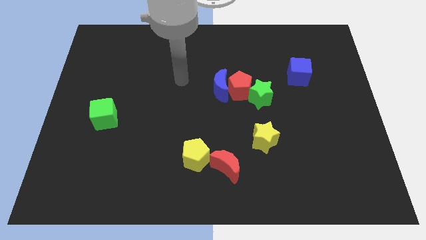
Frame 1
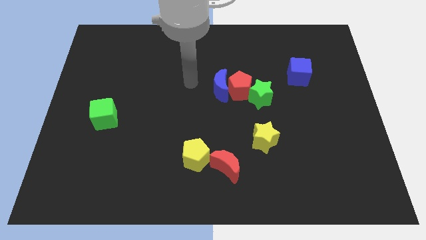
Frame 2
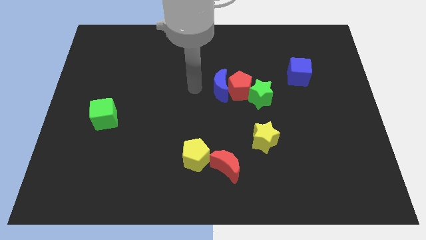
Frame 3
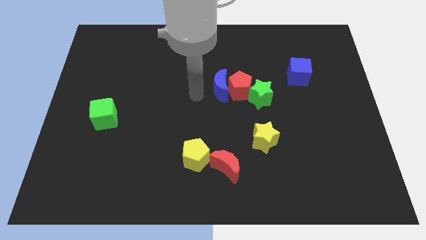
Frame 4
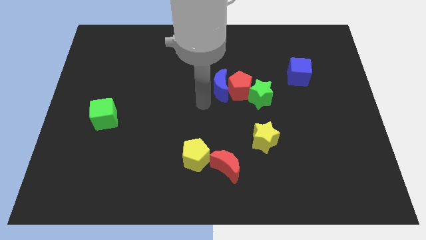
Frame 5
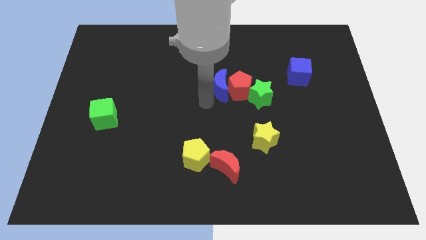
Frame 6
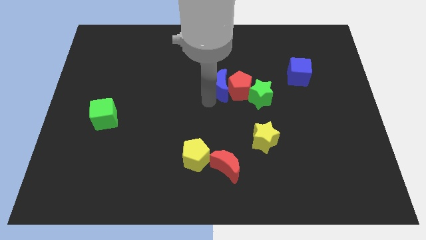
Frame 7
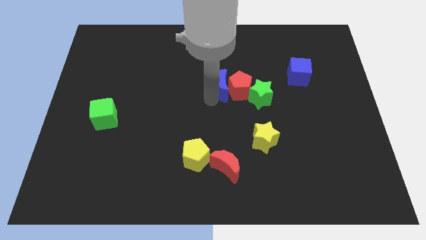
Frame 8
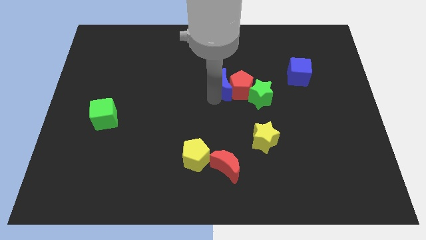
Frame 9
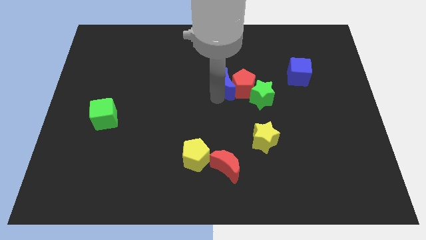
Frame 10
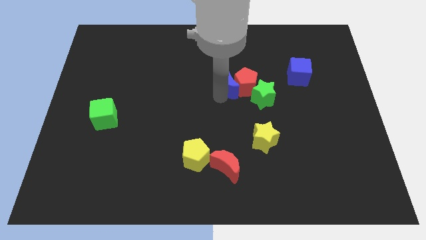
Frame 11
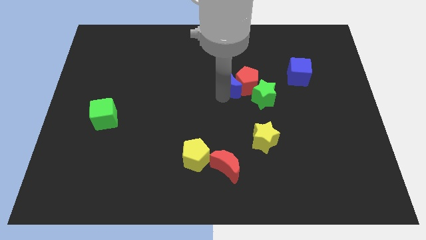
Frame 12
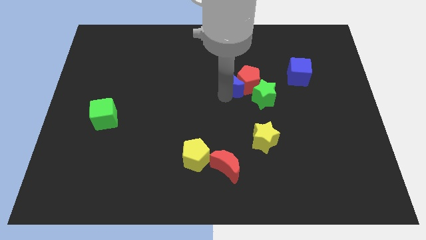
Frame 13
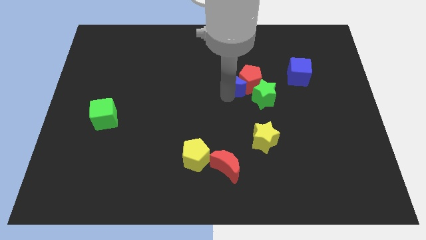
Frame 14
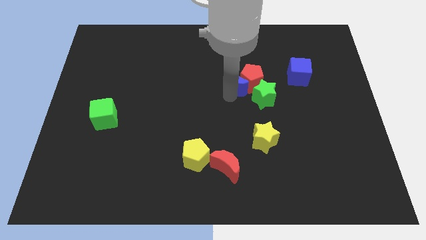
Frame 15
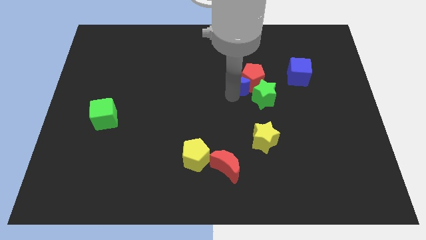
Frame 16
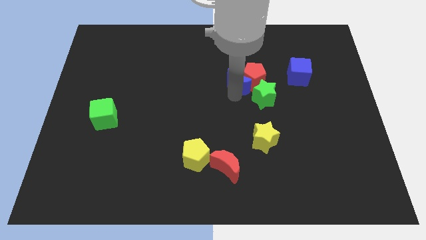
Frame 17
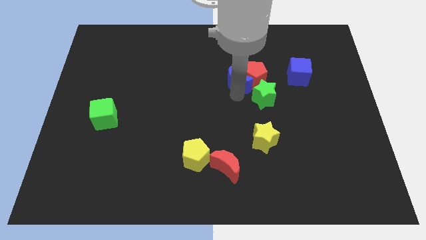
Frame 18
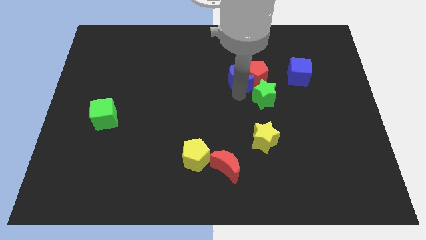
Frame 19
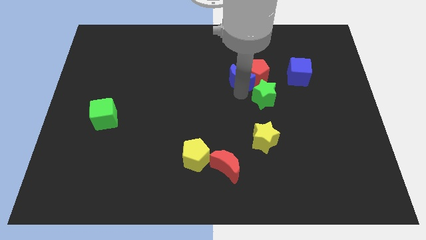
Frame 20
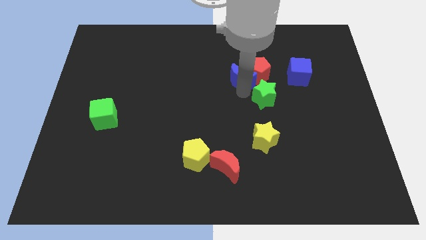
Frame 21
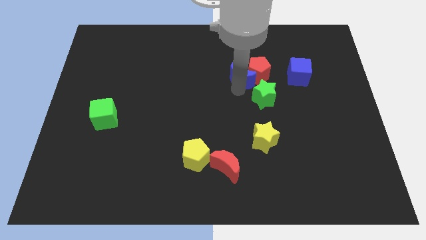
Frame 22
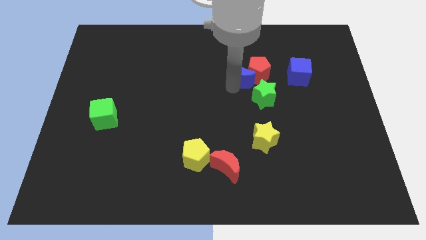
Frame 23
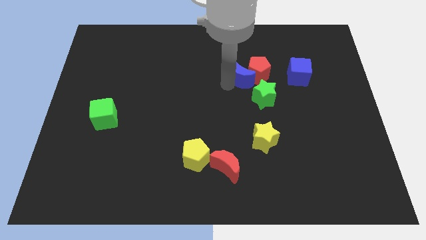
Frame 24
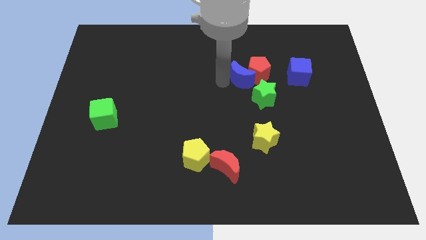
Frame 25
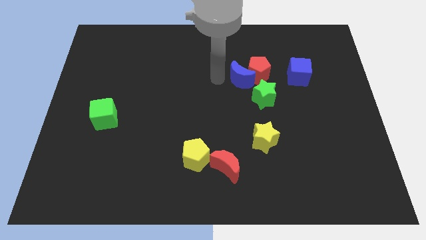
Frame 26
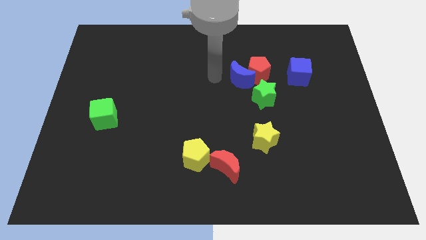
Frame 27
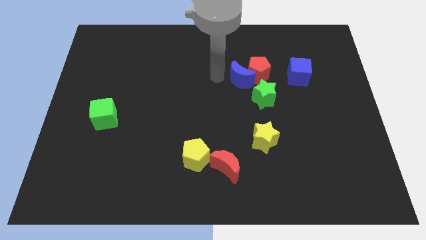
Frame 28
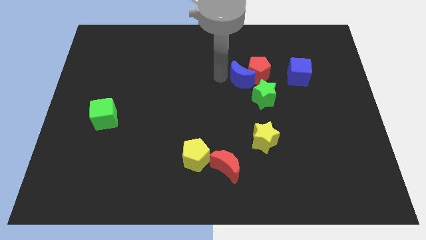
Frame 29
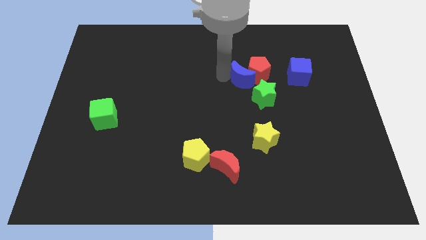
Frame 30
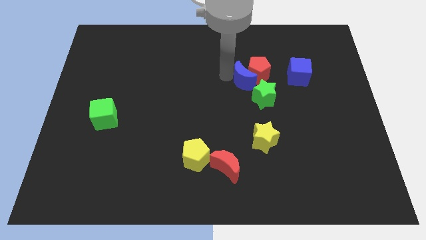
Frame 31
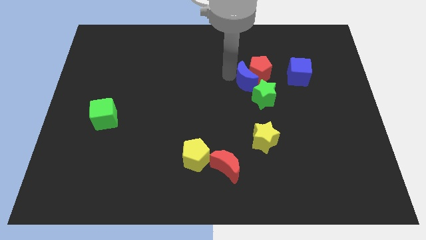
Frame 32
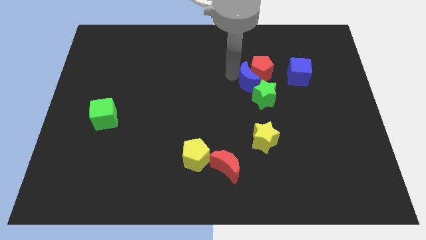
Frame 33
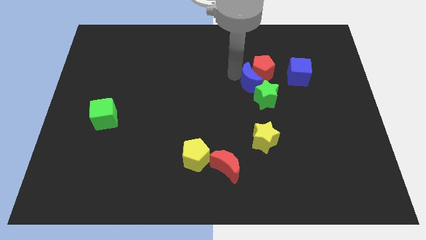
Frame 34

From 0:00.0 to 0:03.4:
slide the blue moon a bit right

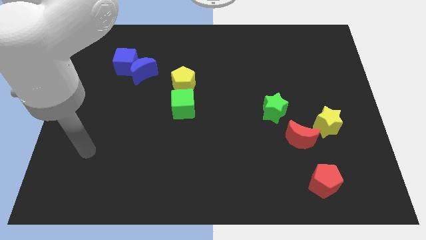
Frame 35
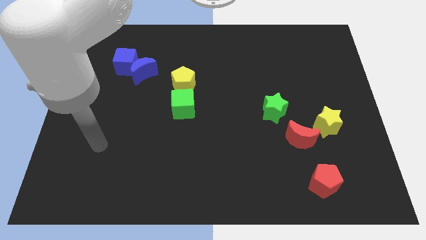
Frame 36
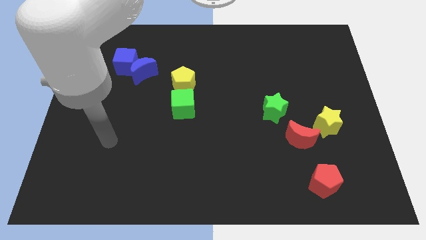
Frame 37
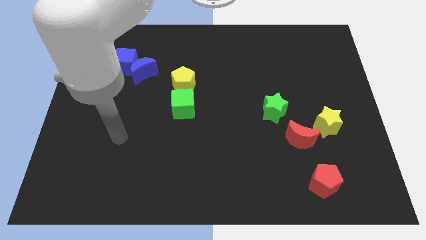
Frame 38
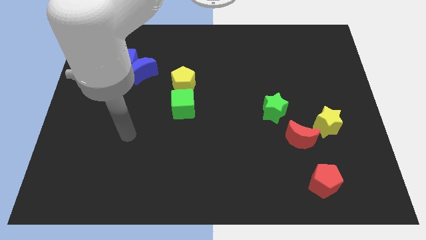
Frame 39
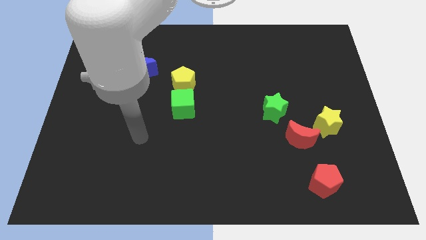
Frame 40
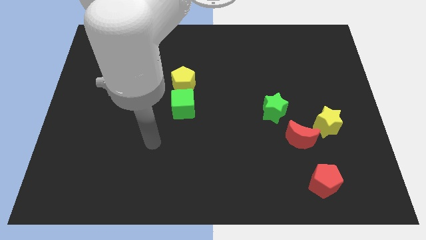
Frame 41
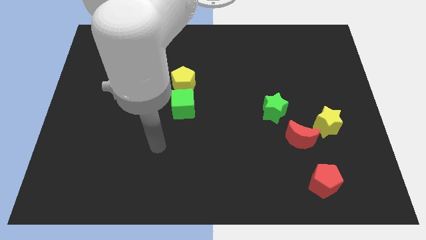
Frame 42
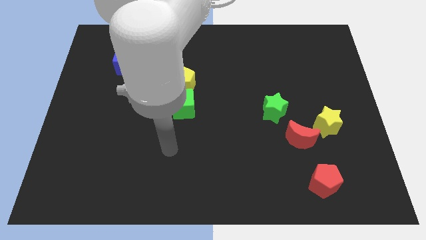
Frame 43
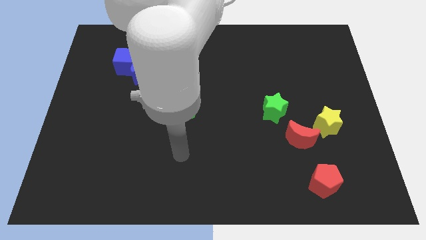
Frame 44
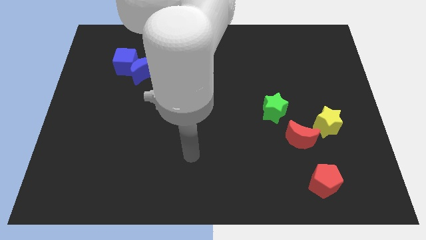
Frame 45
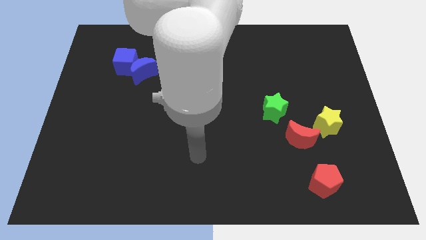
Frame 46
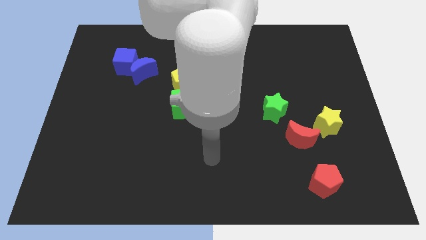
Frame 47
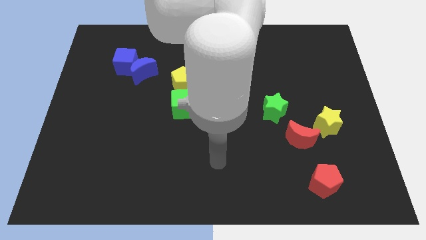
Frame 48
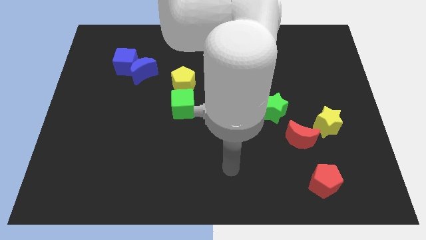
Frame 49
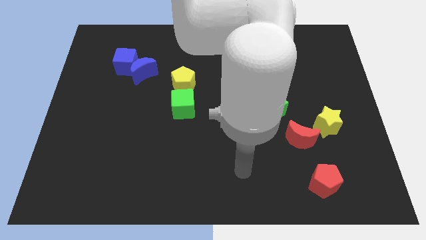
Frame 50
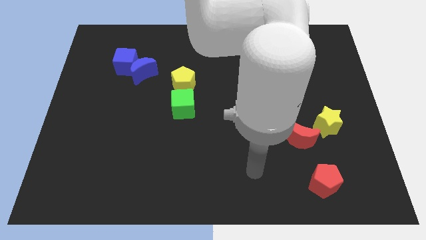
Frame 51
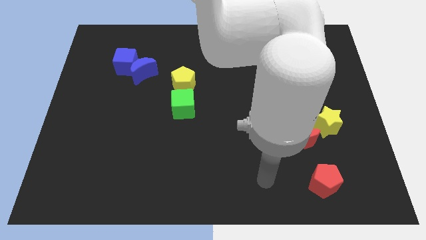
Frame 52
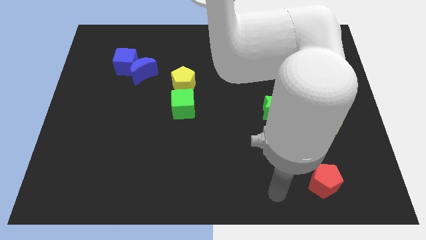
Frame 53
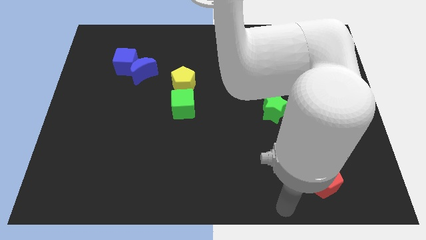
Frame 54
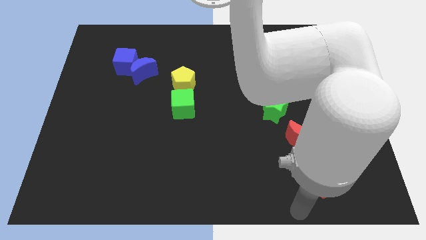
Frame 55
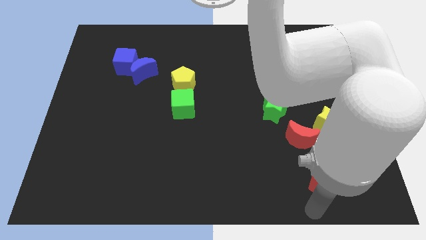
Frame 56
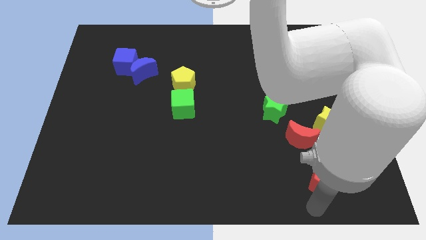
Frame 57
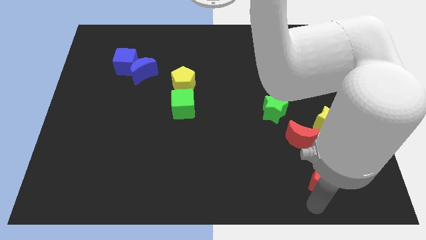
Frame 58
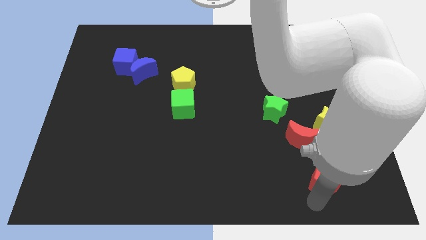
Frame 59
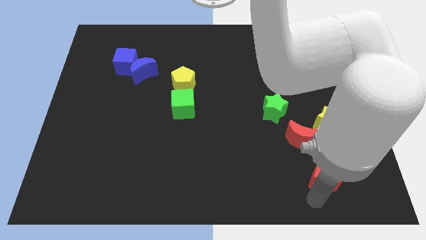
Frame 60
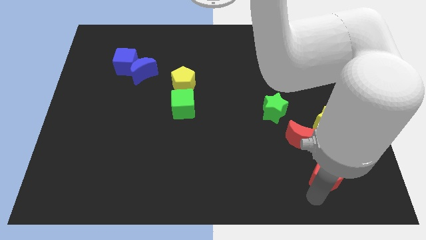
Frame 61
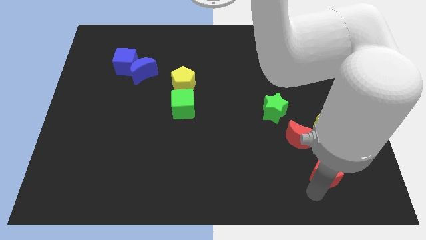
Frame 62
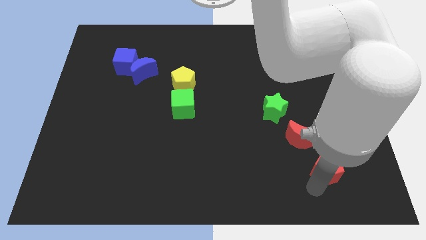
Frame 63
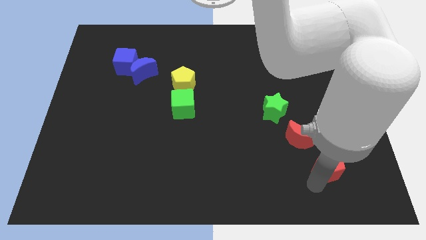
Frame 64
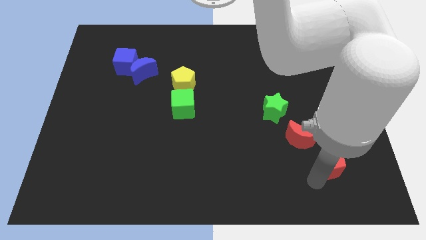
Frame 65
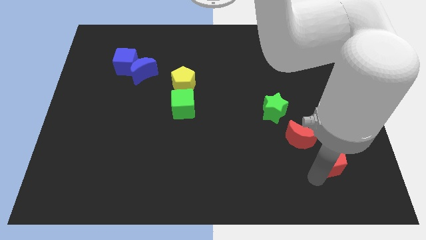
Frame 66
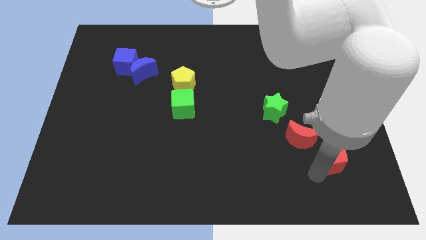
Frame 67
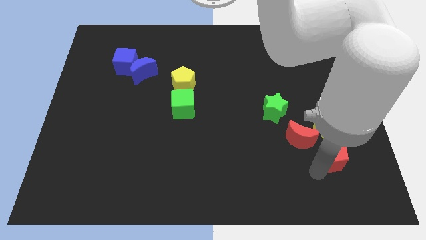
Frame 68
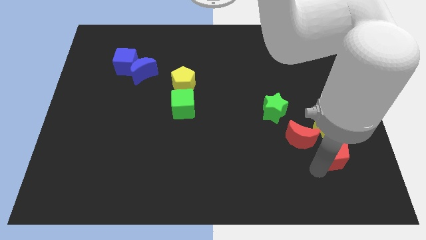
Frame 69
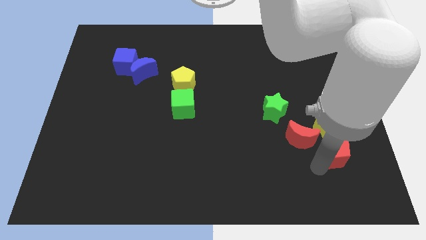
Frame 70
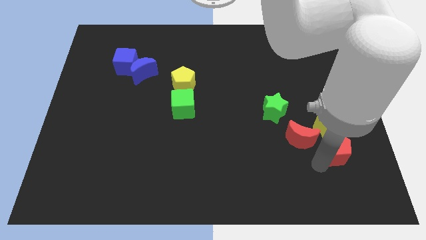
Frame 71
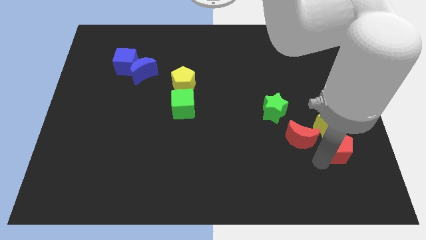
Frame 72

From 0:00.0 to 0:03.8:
push the red pentagon upwards a bit

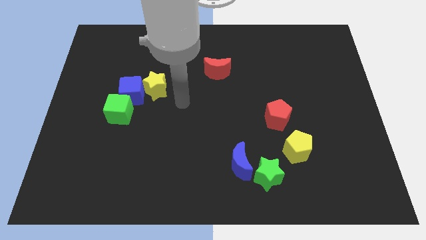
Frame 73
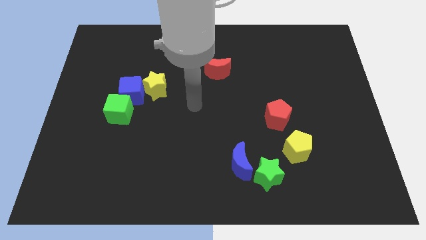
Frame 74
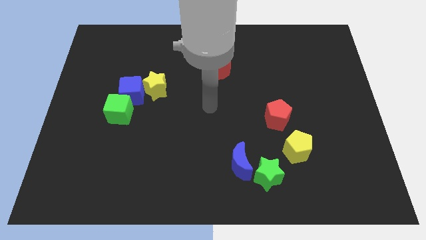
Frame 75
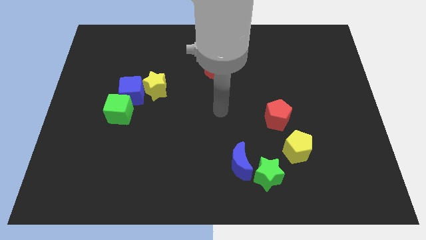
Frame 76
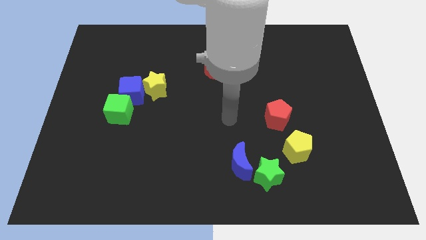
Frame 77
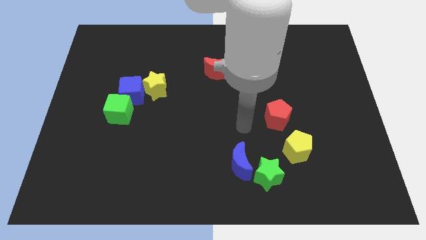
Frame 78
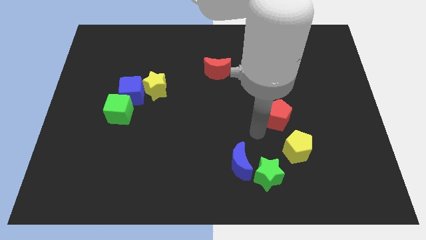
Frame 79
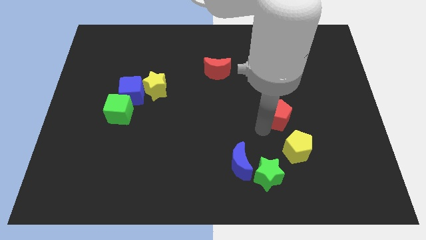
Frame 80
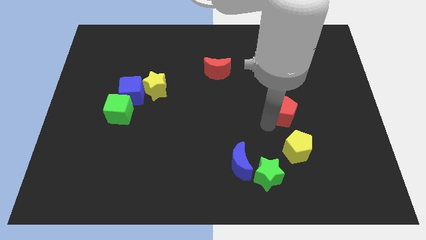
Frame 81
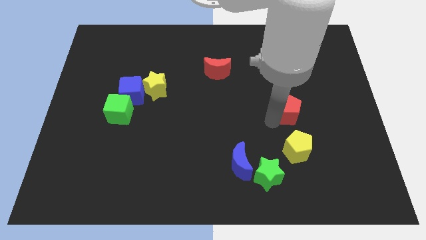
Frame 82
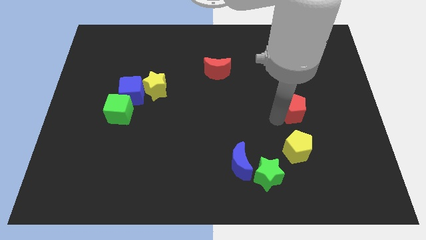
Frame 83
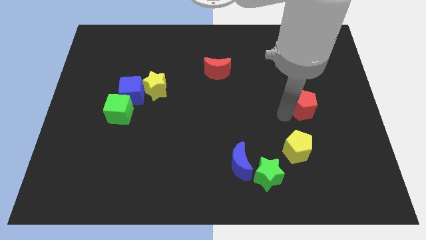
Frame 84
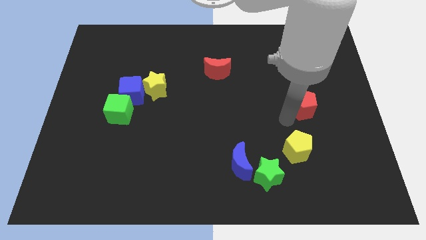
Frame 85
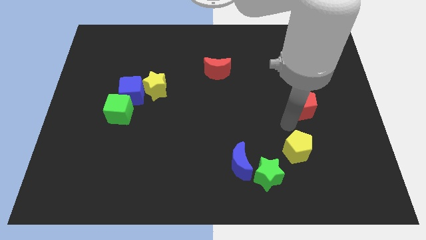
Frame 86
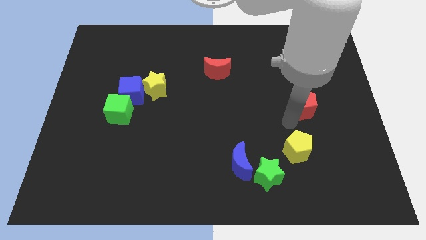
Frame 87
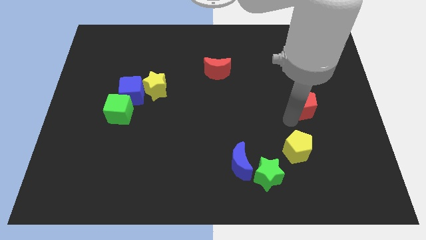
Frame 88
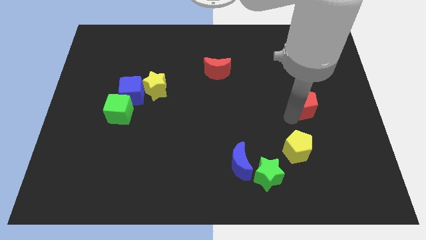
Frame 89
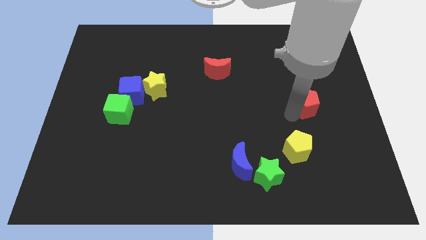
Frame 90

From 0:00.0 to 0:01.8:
slightly push the red pentagon up and then right
